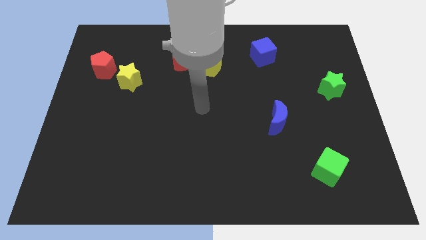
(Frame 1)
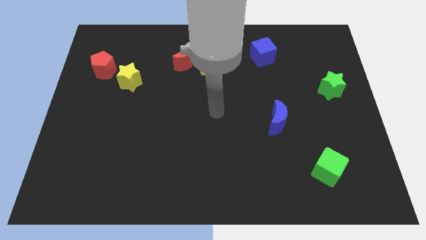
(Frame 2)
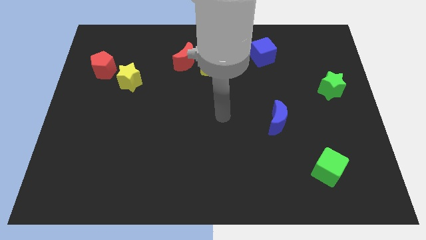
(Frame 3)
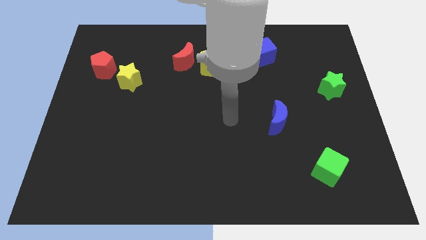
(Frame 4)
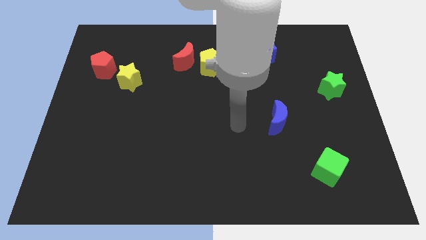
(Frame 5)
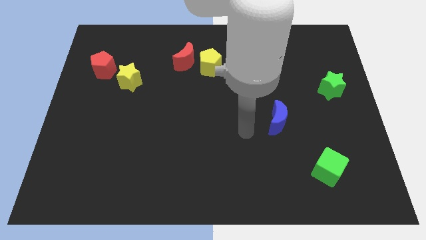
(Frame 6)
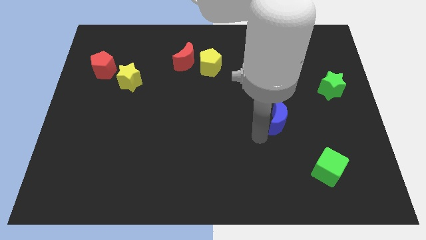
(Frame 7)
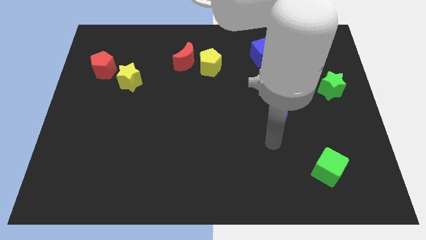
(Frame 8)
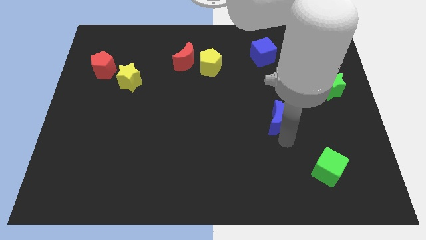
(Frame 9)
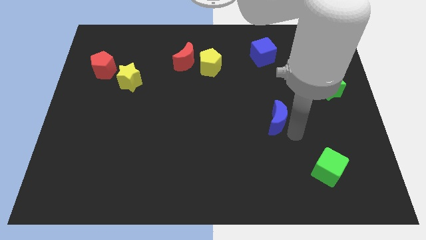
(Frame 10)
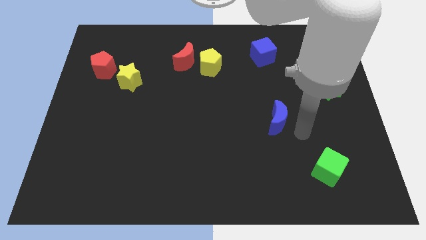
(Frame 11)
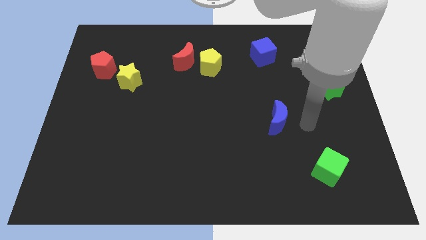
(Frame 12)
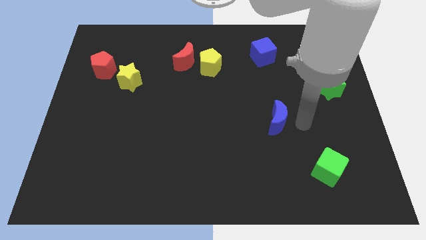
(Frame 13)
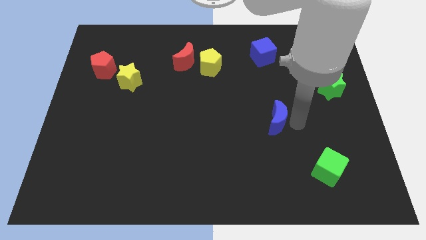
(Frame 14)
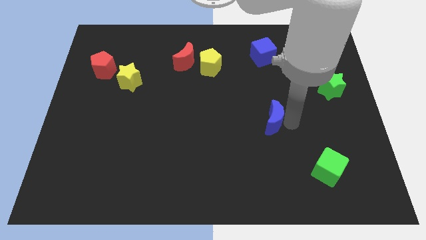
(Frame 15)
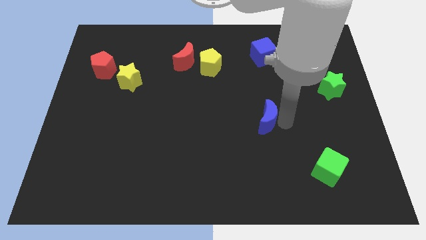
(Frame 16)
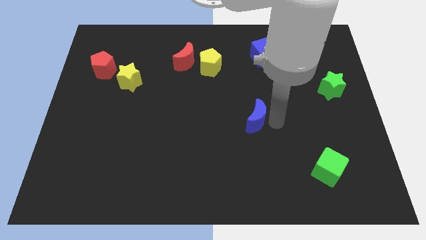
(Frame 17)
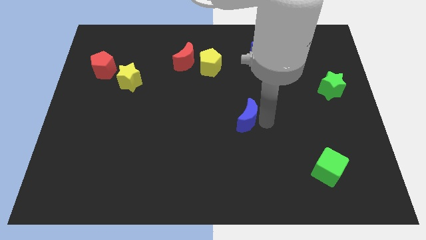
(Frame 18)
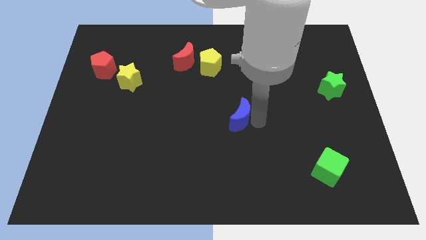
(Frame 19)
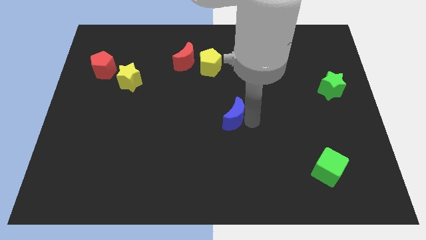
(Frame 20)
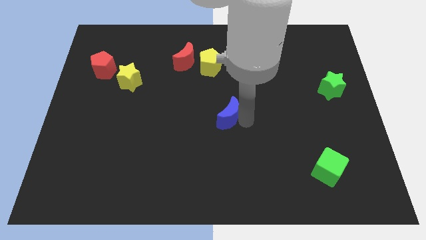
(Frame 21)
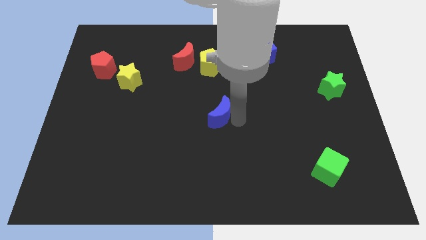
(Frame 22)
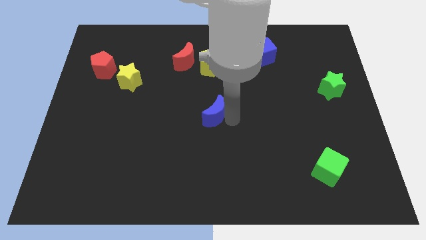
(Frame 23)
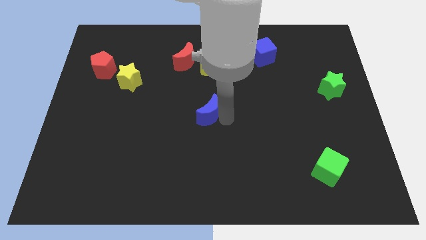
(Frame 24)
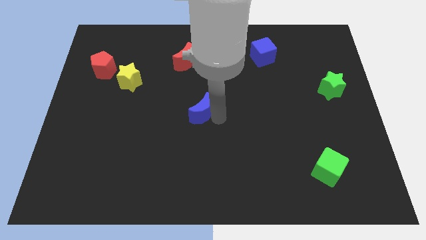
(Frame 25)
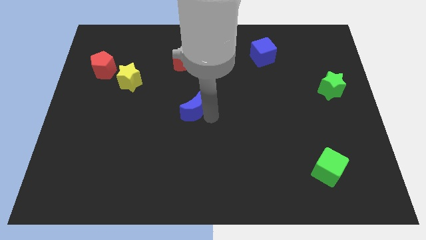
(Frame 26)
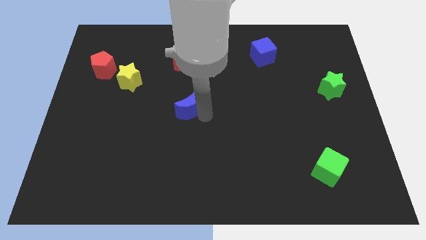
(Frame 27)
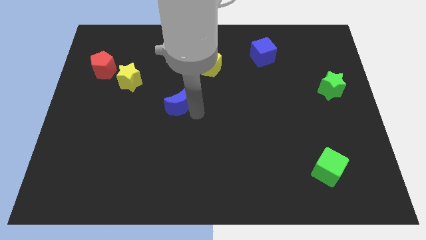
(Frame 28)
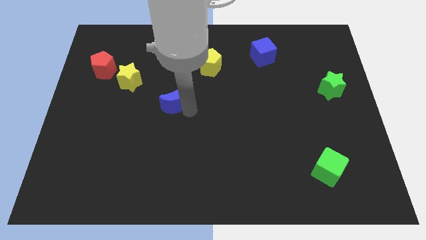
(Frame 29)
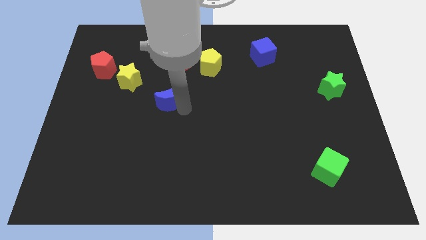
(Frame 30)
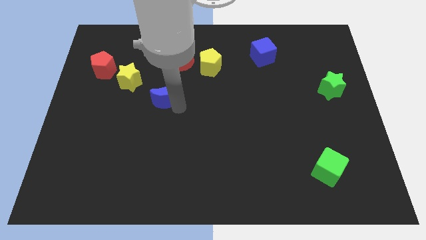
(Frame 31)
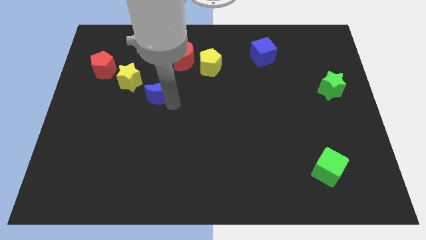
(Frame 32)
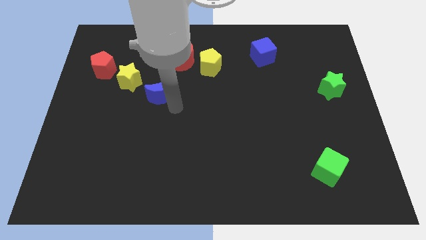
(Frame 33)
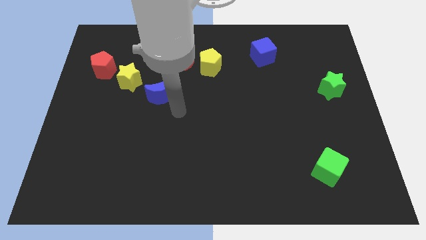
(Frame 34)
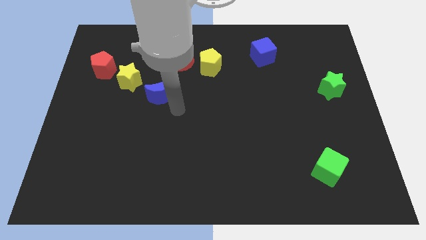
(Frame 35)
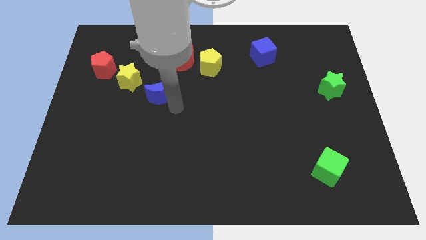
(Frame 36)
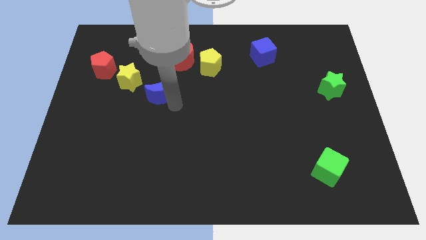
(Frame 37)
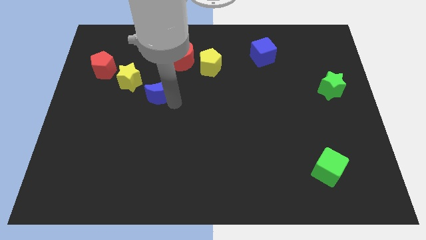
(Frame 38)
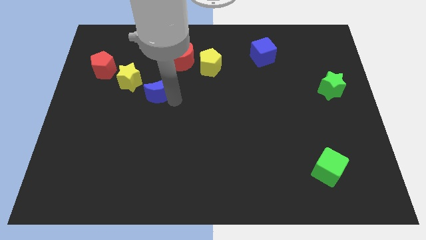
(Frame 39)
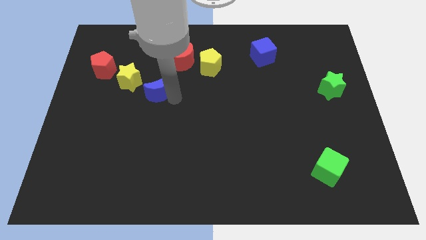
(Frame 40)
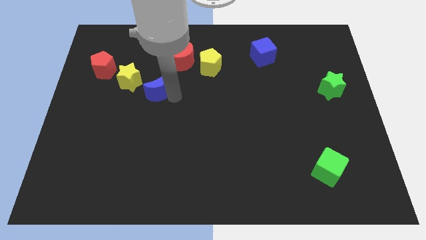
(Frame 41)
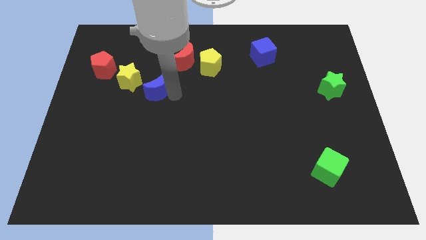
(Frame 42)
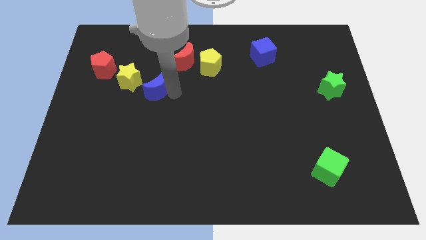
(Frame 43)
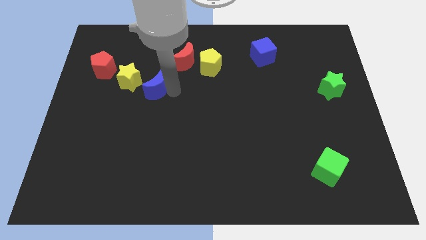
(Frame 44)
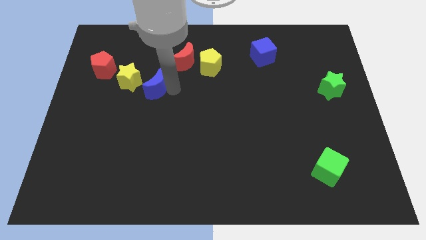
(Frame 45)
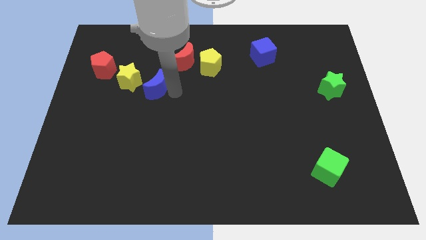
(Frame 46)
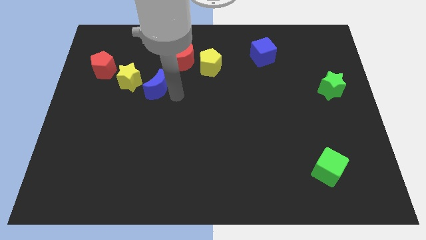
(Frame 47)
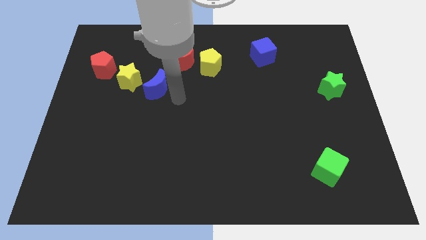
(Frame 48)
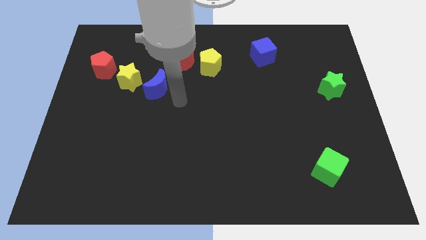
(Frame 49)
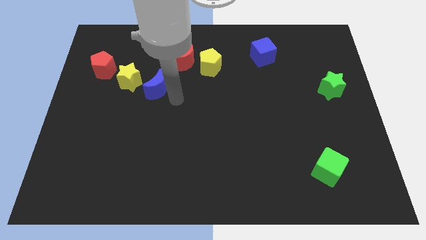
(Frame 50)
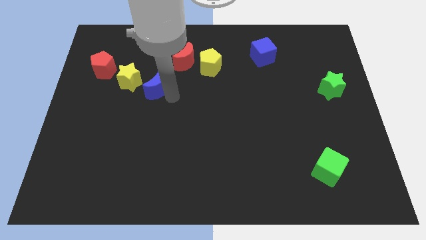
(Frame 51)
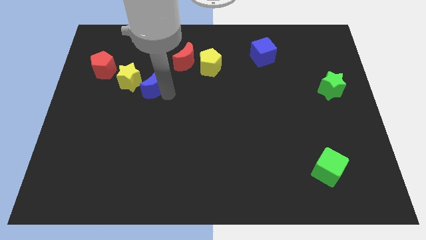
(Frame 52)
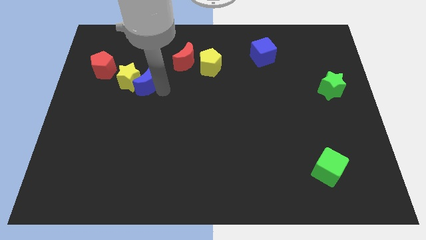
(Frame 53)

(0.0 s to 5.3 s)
move the blue moon close to the yellow star

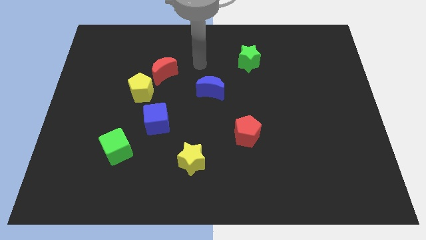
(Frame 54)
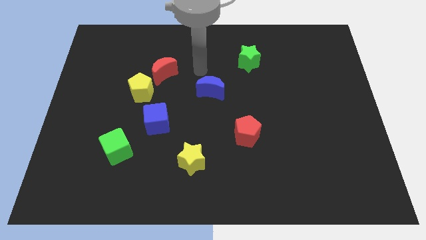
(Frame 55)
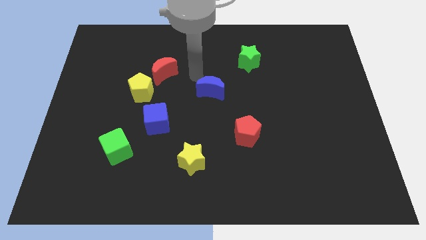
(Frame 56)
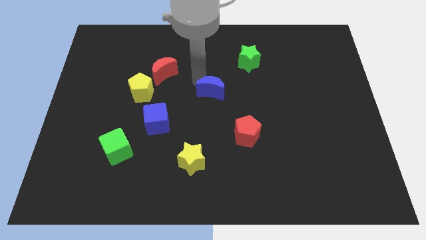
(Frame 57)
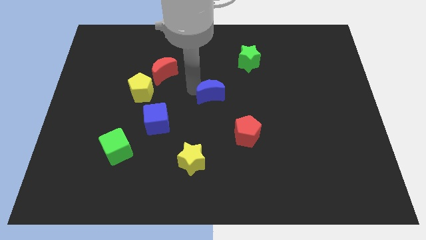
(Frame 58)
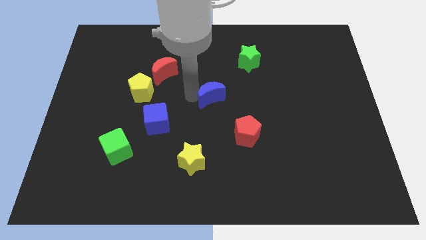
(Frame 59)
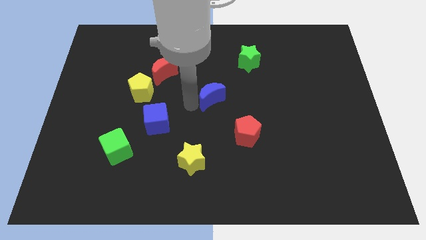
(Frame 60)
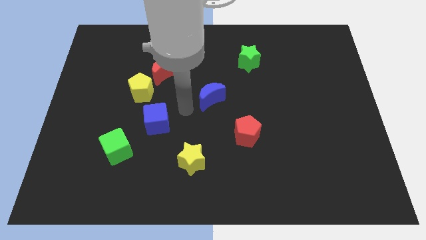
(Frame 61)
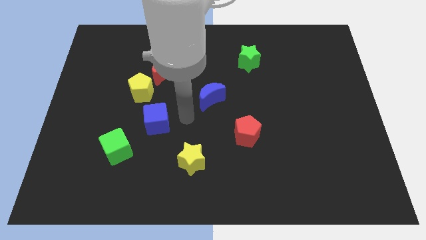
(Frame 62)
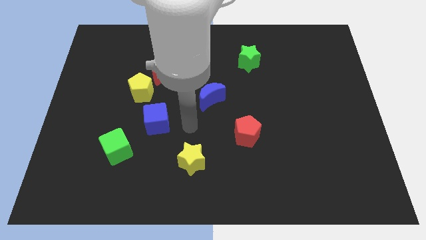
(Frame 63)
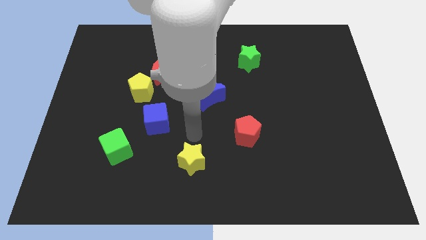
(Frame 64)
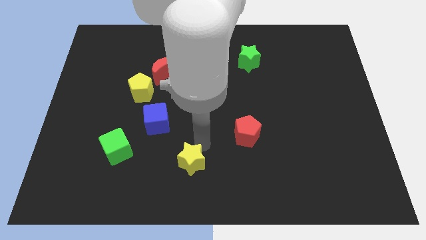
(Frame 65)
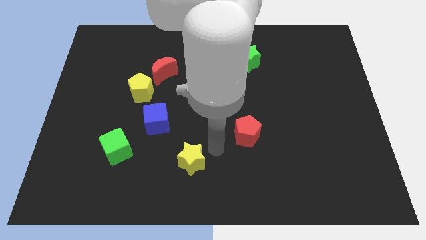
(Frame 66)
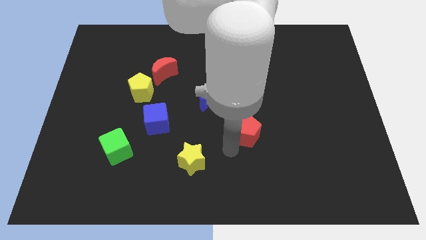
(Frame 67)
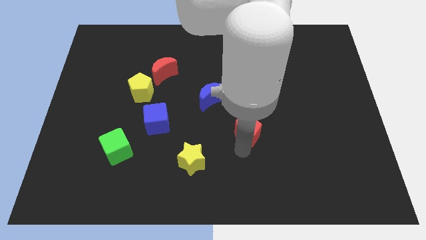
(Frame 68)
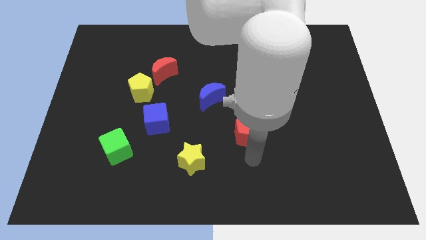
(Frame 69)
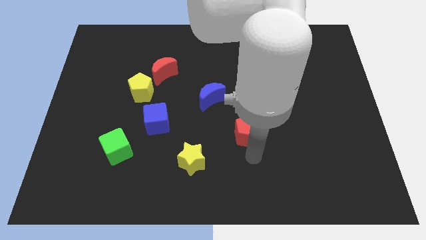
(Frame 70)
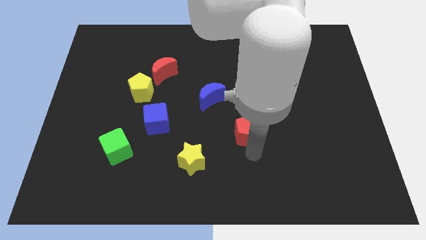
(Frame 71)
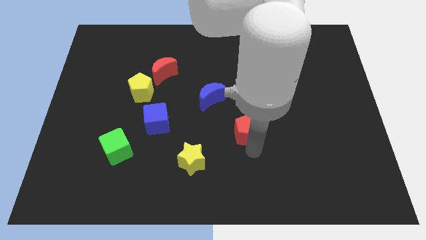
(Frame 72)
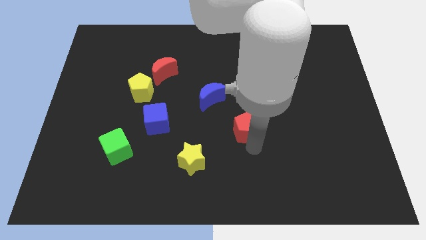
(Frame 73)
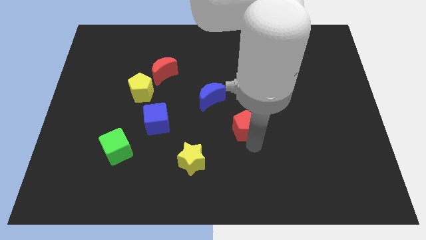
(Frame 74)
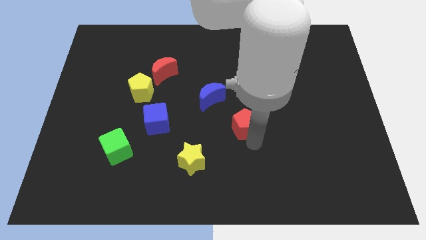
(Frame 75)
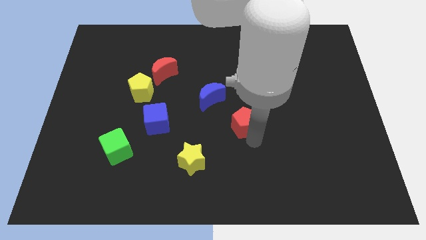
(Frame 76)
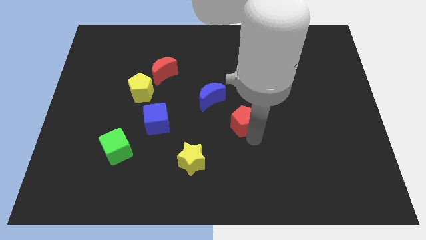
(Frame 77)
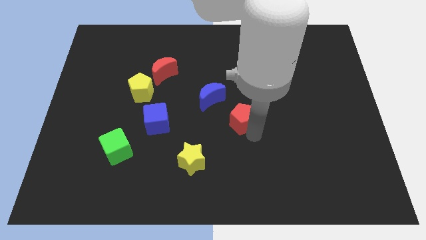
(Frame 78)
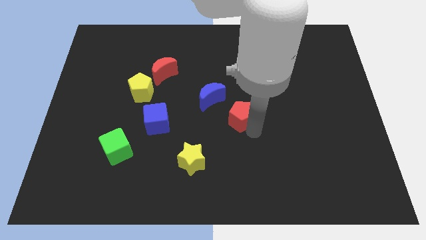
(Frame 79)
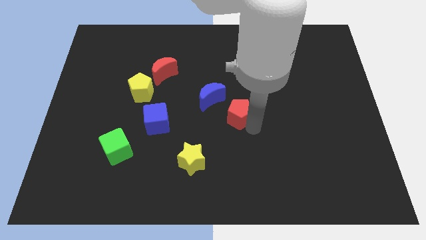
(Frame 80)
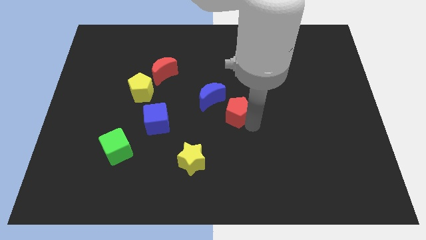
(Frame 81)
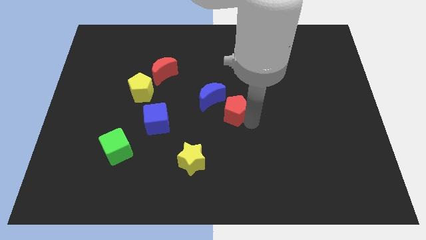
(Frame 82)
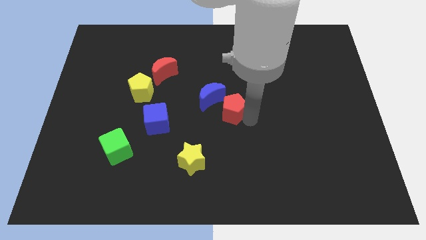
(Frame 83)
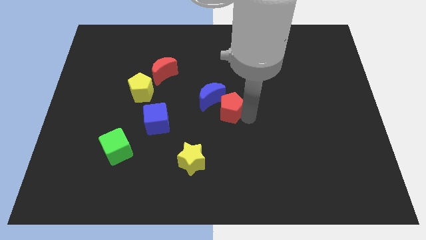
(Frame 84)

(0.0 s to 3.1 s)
push the red pentagon towards the blue moon
